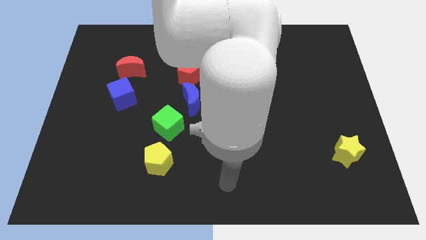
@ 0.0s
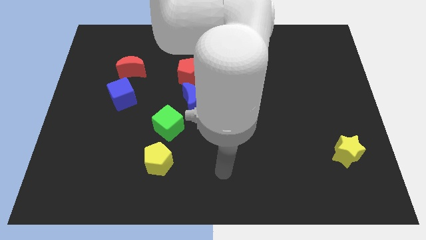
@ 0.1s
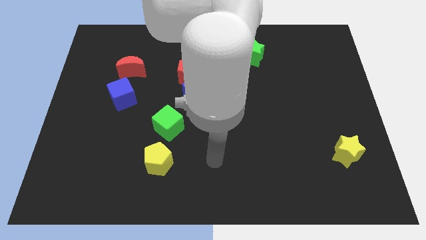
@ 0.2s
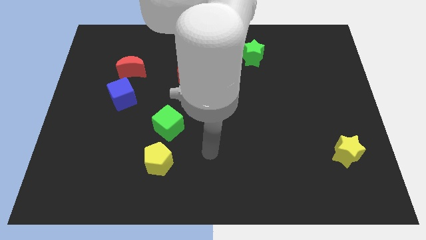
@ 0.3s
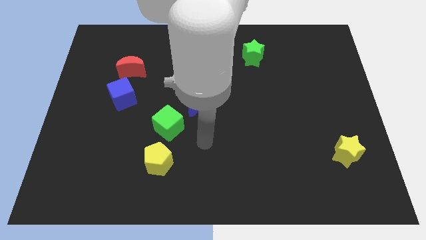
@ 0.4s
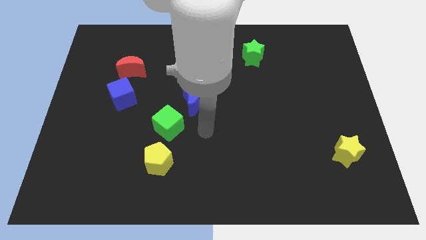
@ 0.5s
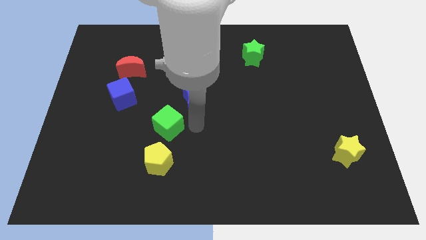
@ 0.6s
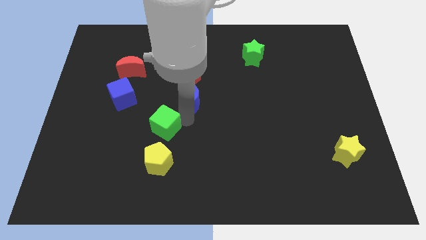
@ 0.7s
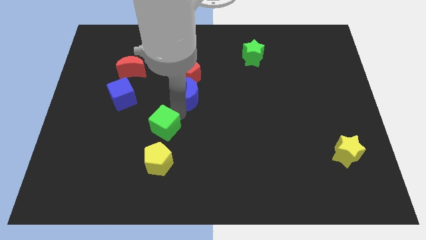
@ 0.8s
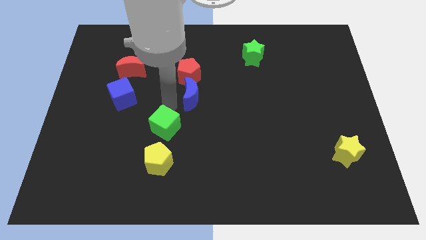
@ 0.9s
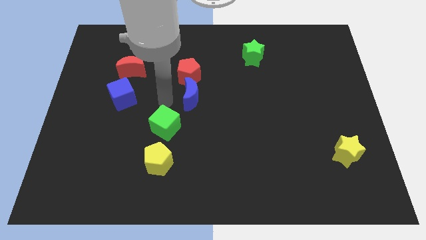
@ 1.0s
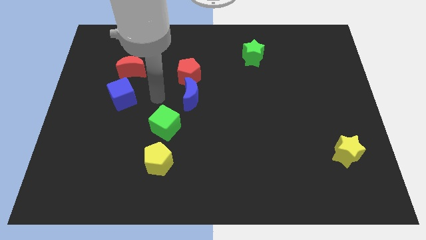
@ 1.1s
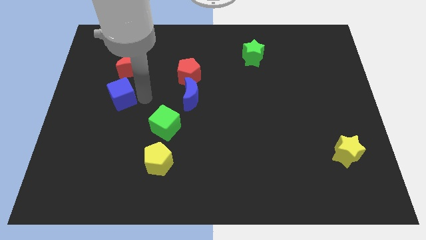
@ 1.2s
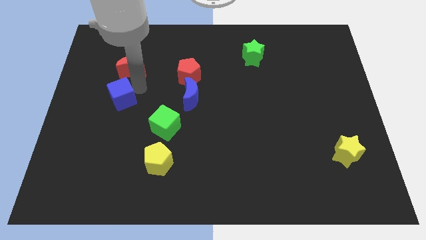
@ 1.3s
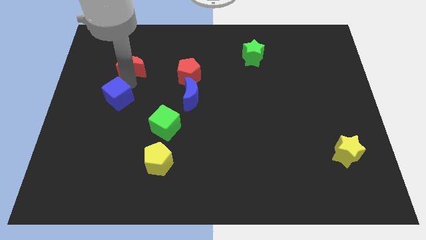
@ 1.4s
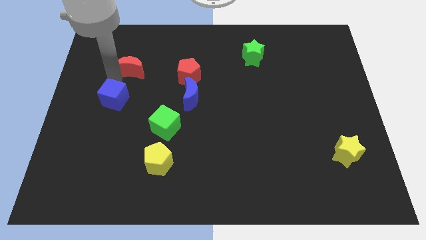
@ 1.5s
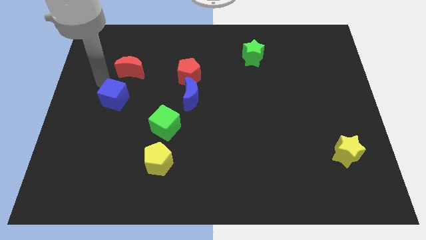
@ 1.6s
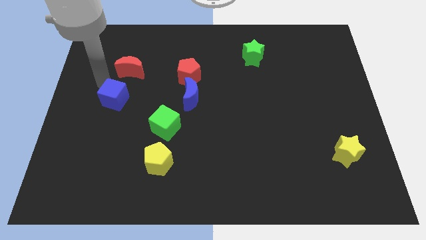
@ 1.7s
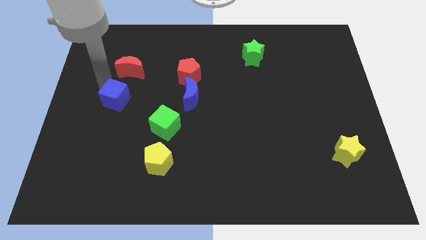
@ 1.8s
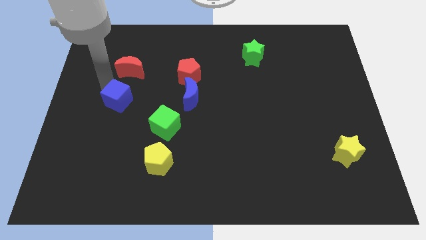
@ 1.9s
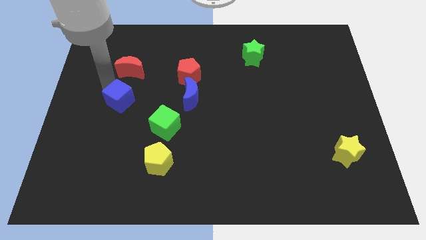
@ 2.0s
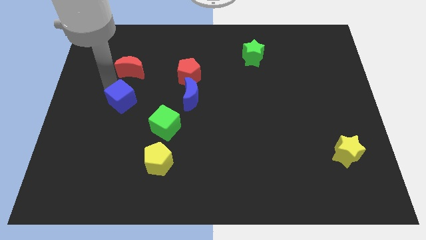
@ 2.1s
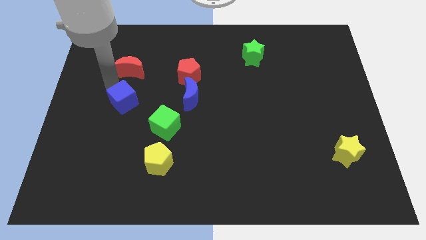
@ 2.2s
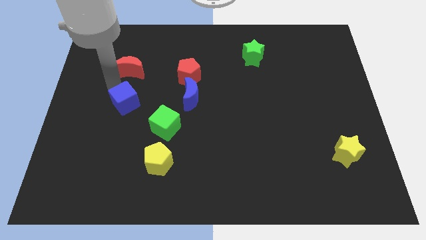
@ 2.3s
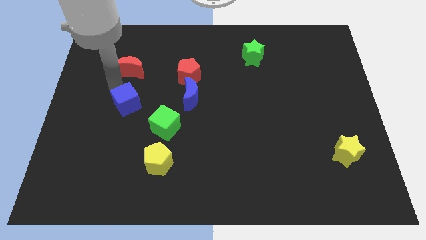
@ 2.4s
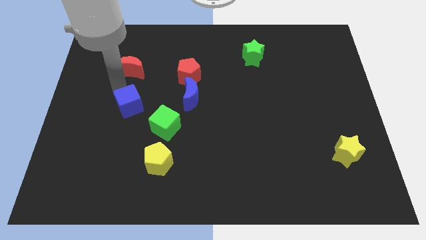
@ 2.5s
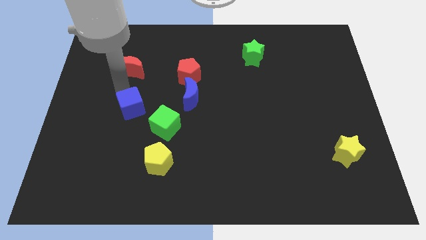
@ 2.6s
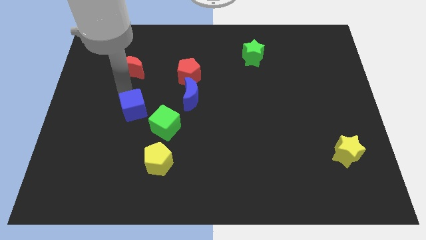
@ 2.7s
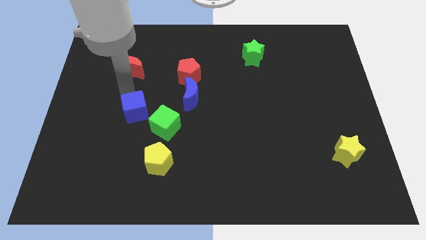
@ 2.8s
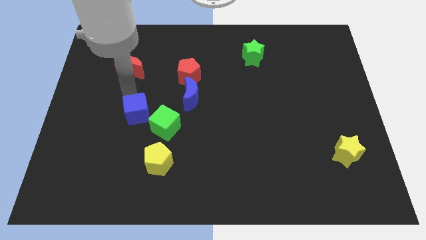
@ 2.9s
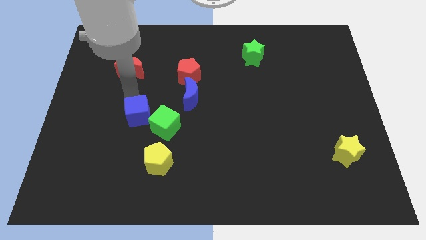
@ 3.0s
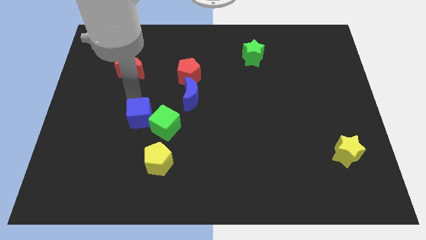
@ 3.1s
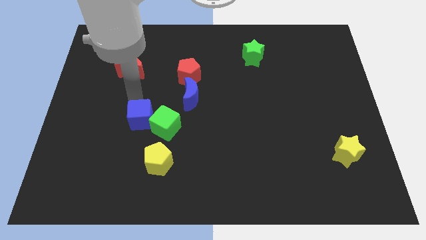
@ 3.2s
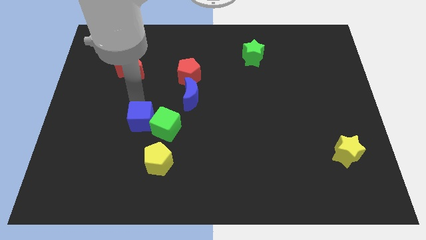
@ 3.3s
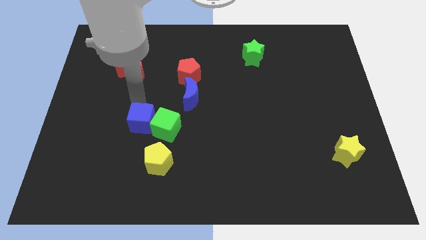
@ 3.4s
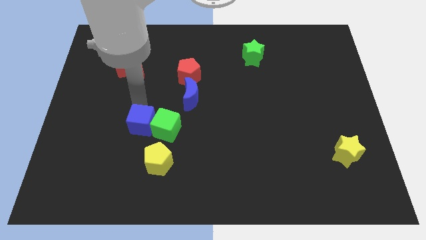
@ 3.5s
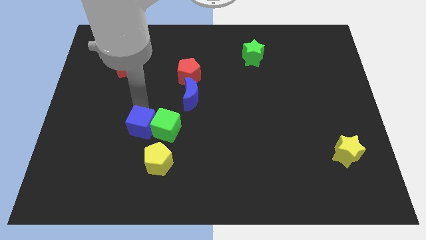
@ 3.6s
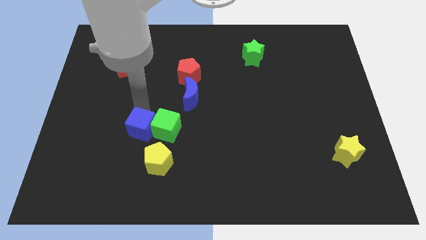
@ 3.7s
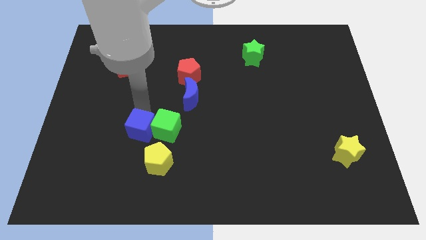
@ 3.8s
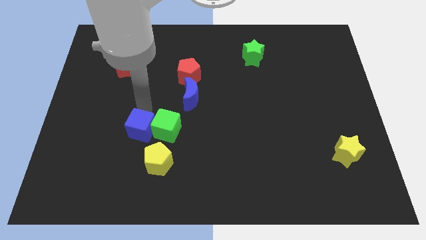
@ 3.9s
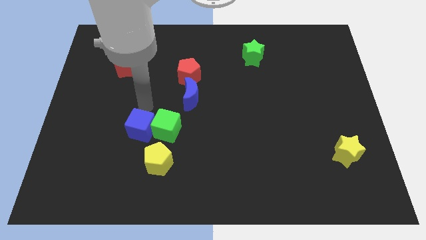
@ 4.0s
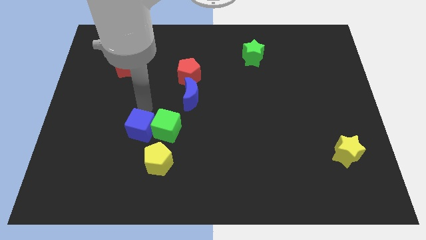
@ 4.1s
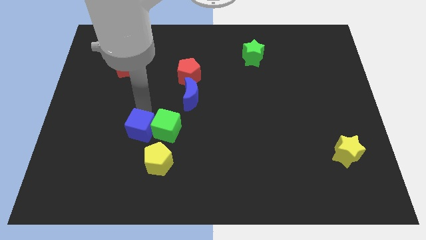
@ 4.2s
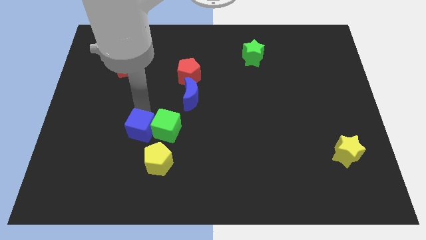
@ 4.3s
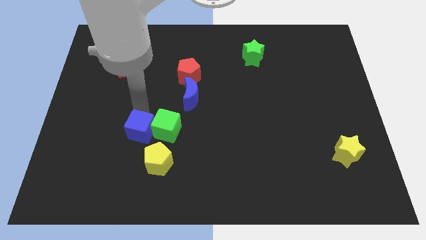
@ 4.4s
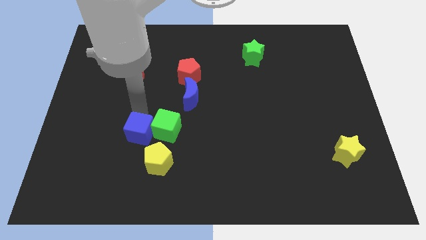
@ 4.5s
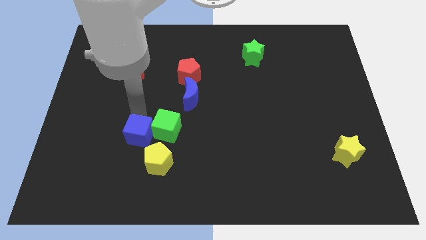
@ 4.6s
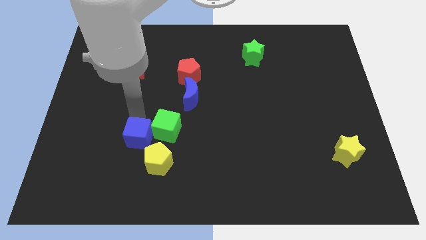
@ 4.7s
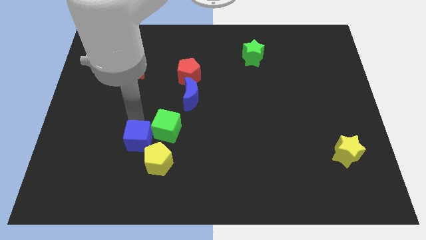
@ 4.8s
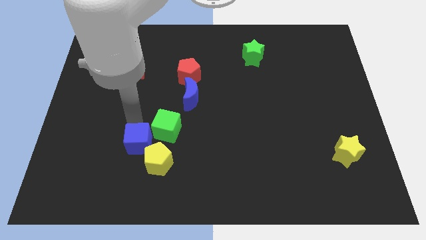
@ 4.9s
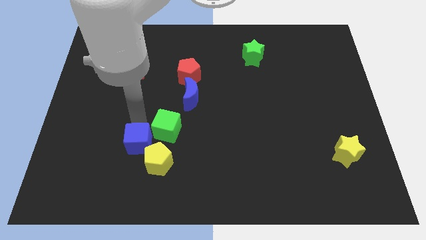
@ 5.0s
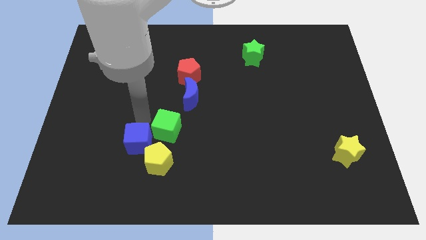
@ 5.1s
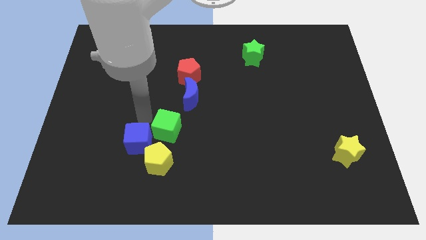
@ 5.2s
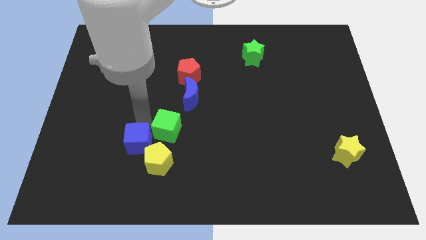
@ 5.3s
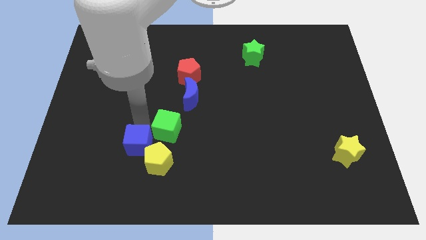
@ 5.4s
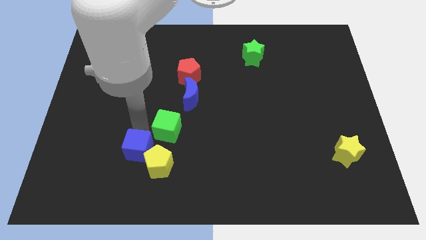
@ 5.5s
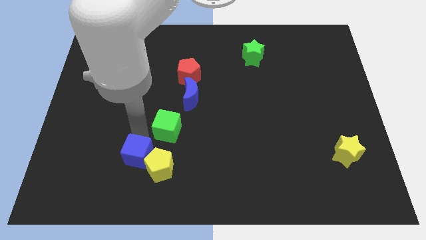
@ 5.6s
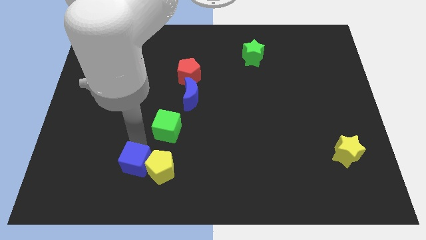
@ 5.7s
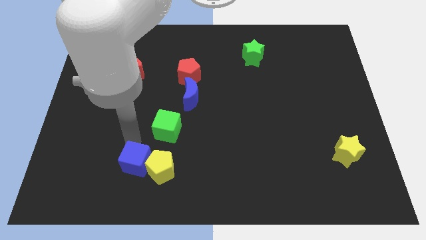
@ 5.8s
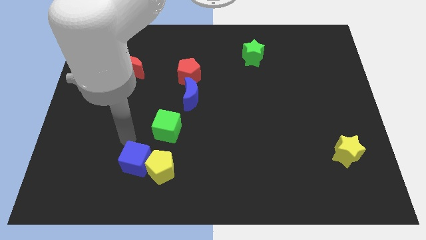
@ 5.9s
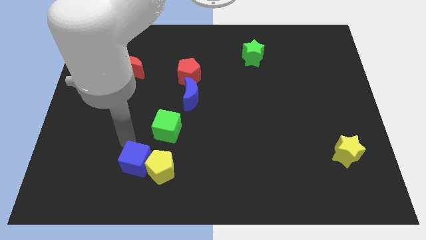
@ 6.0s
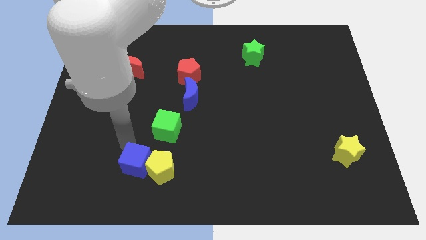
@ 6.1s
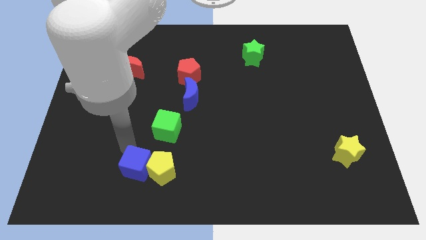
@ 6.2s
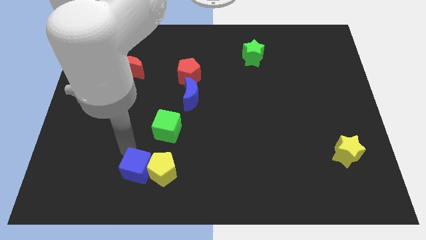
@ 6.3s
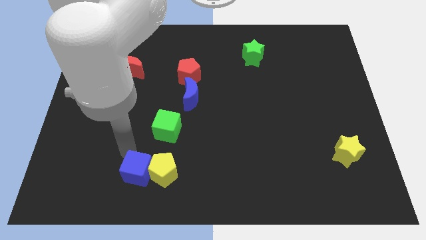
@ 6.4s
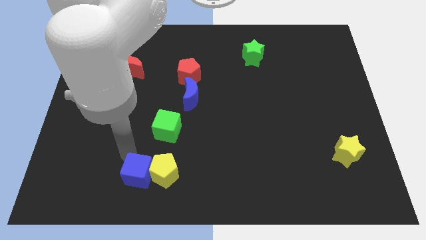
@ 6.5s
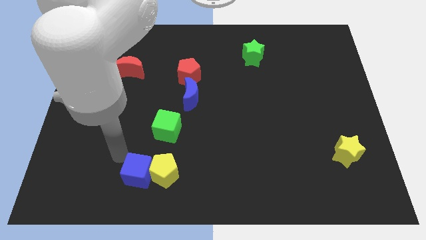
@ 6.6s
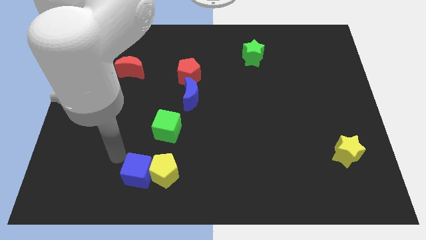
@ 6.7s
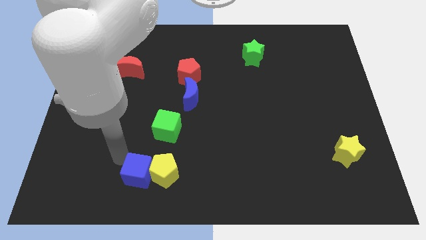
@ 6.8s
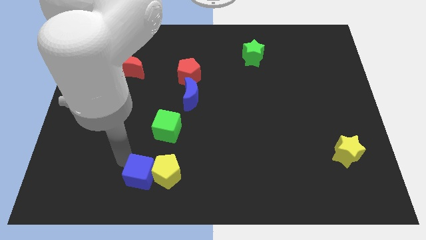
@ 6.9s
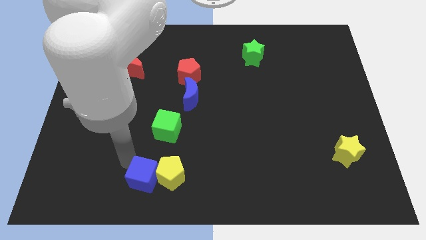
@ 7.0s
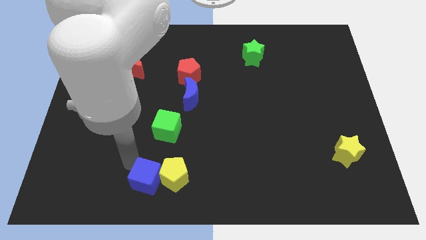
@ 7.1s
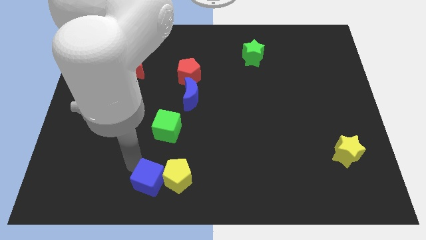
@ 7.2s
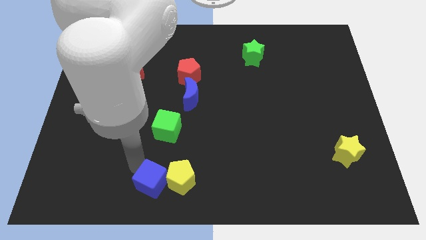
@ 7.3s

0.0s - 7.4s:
push the blue cube to the bottom
